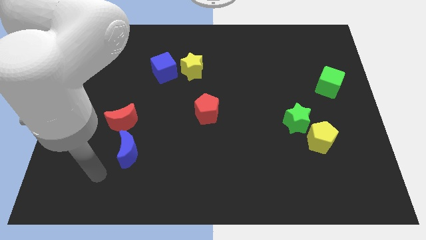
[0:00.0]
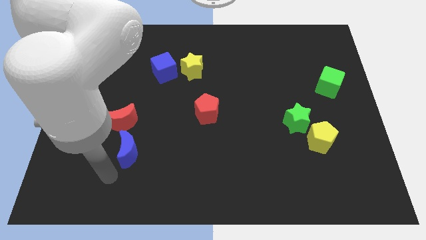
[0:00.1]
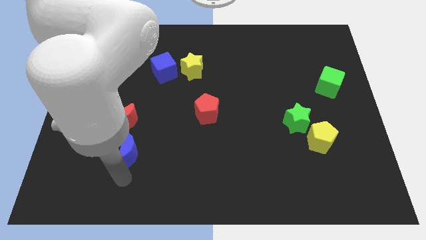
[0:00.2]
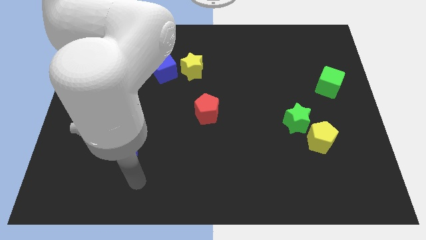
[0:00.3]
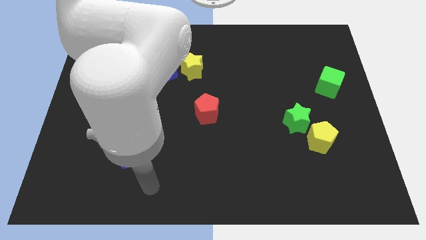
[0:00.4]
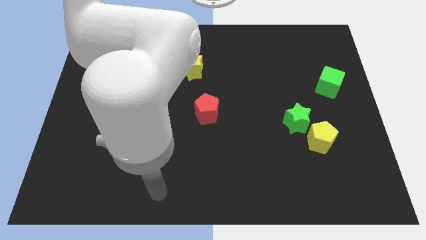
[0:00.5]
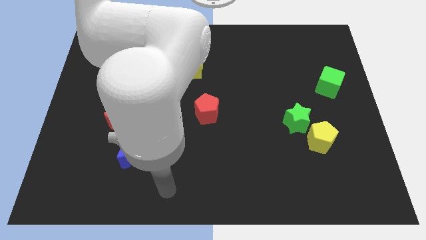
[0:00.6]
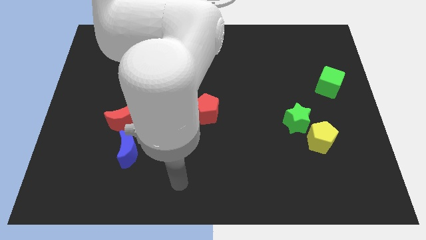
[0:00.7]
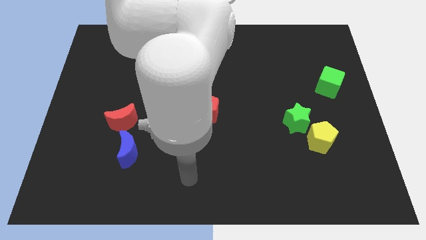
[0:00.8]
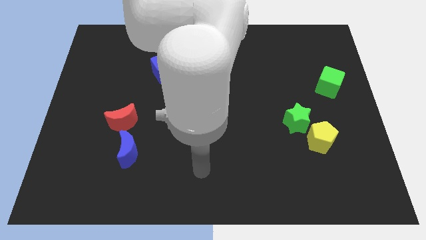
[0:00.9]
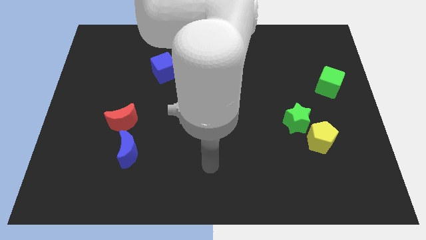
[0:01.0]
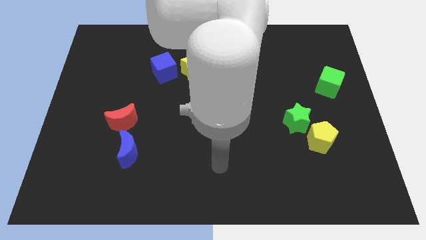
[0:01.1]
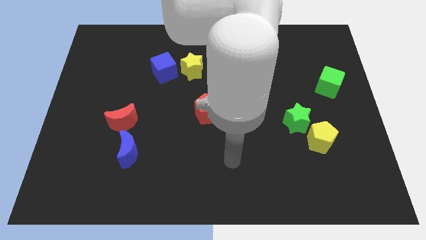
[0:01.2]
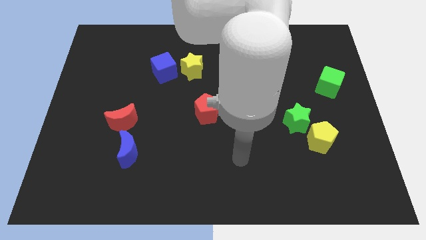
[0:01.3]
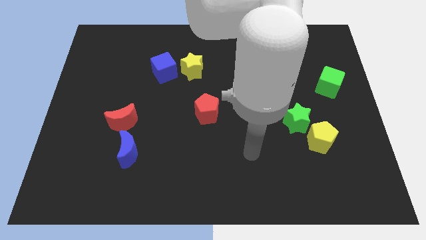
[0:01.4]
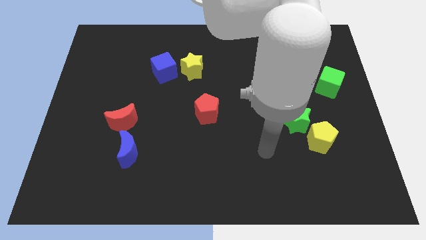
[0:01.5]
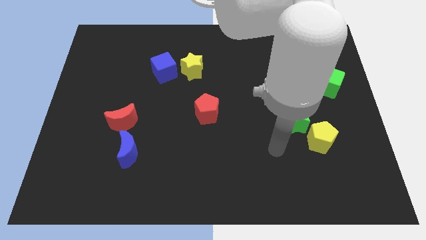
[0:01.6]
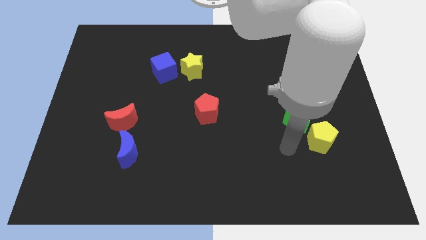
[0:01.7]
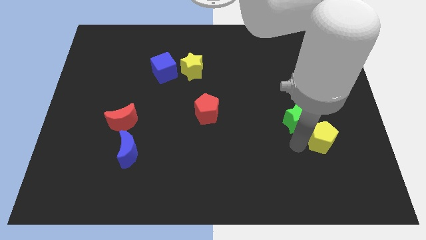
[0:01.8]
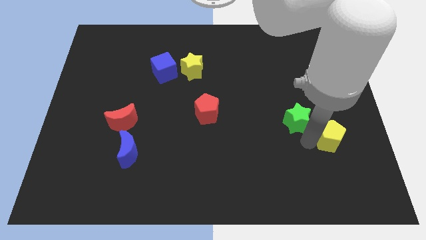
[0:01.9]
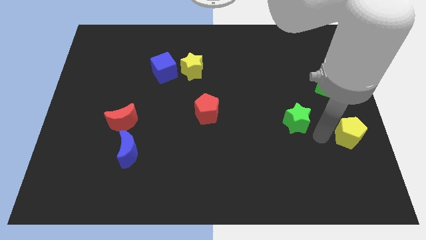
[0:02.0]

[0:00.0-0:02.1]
separate the green star from the yellow pentagon

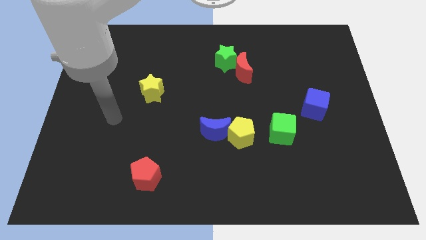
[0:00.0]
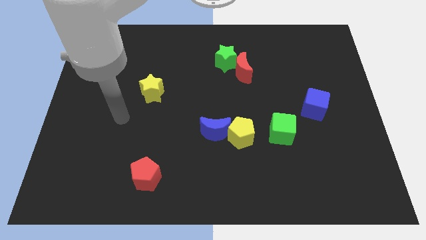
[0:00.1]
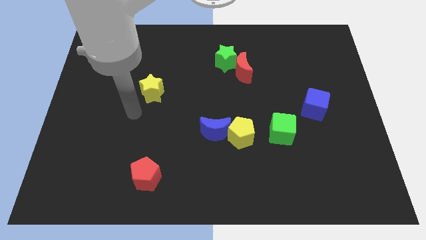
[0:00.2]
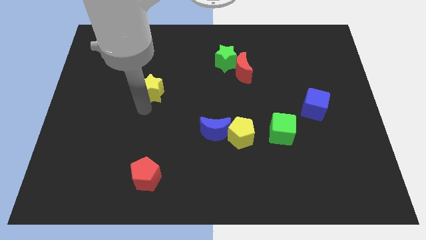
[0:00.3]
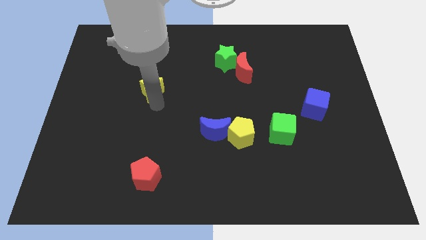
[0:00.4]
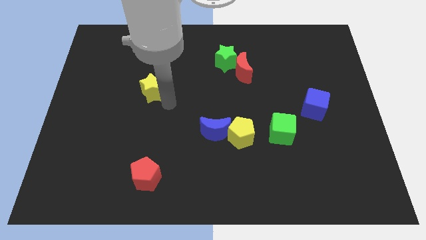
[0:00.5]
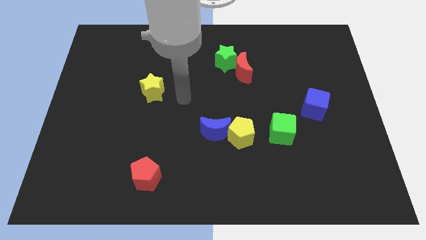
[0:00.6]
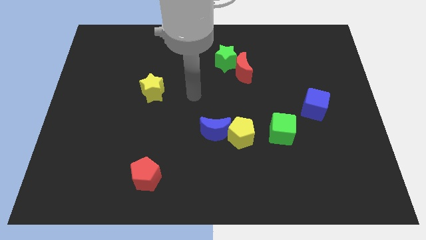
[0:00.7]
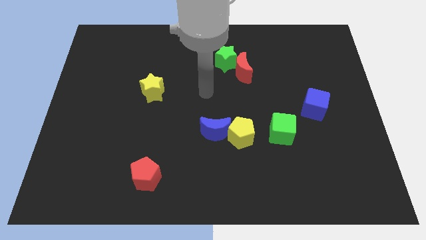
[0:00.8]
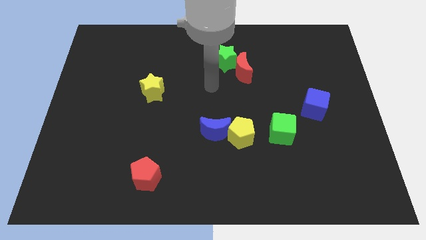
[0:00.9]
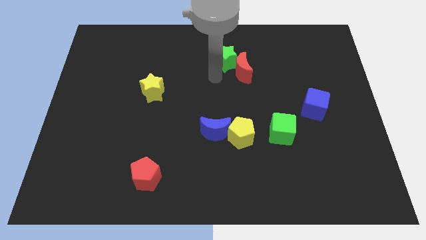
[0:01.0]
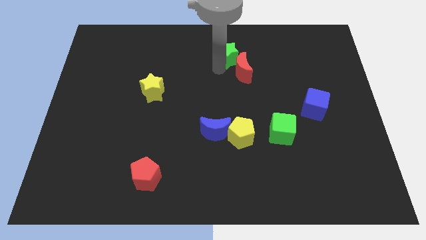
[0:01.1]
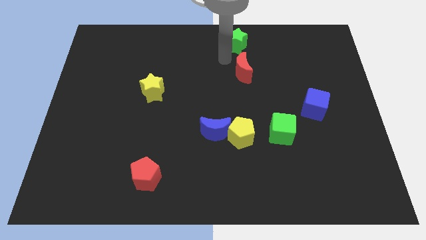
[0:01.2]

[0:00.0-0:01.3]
move the red moon away from the green star

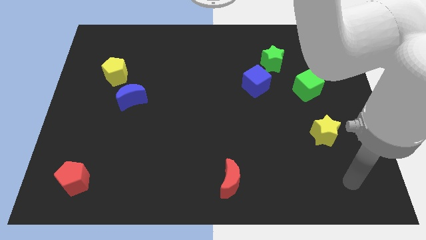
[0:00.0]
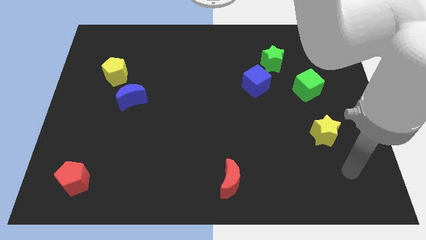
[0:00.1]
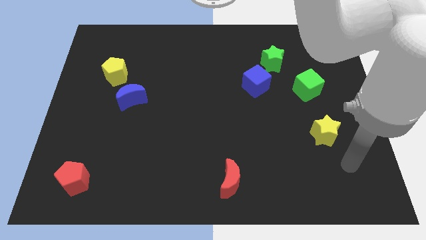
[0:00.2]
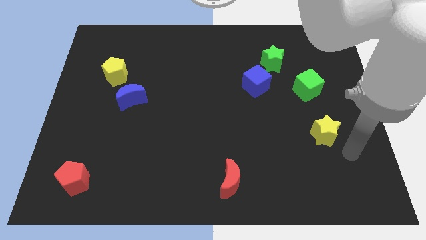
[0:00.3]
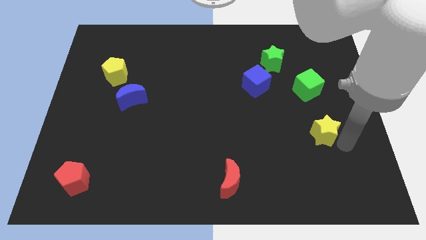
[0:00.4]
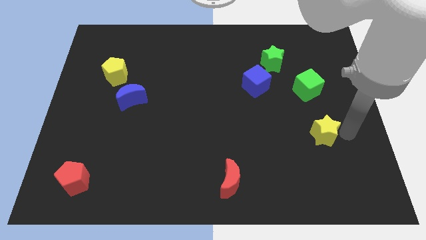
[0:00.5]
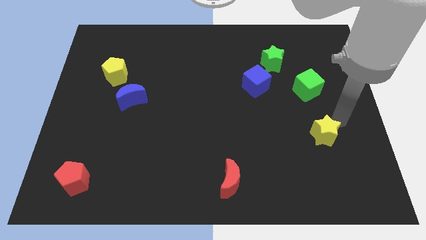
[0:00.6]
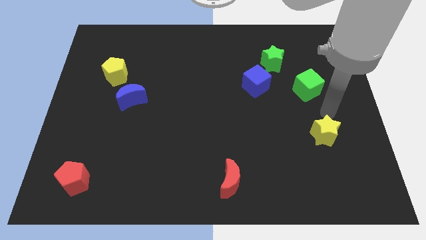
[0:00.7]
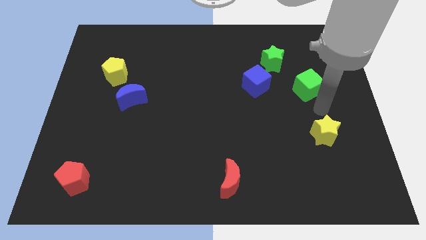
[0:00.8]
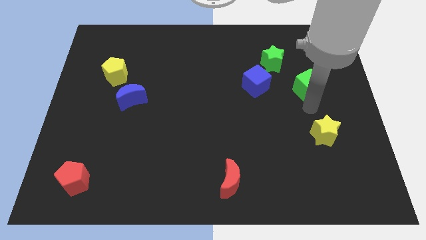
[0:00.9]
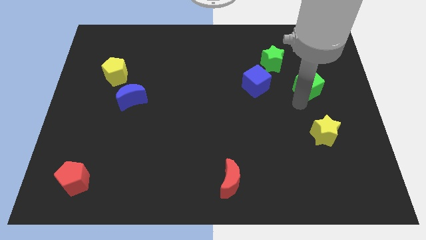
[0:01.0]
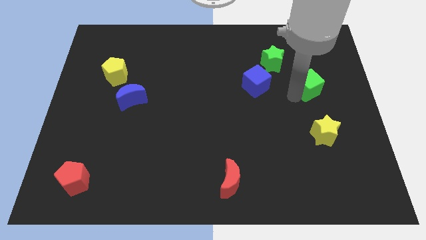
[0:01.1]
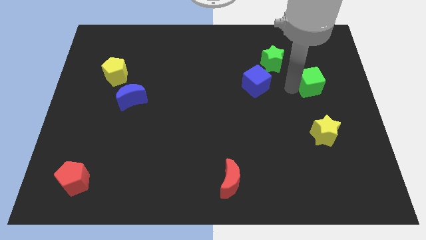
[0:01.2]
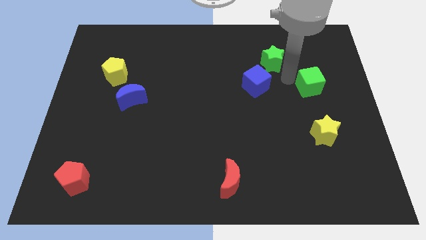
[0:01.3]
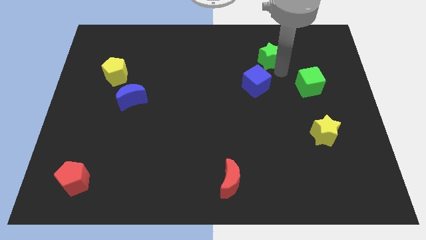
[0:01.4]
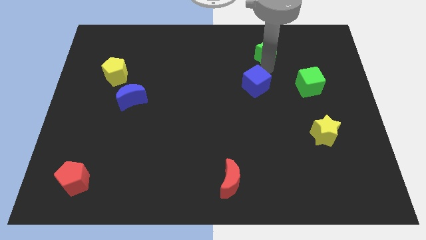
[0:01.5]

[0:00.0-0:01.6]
pull the blue cube apart from the green star

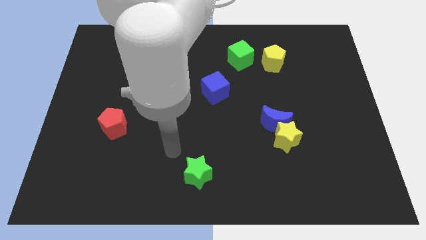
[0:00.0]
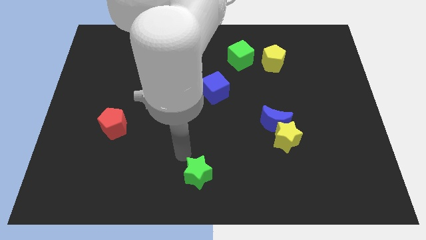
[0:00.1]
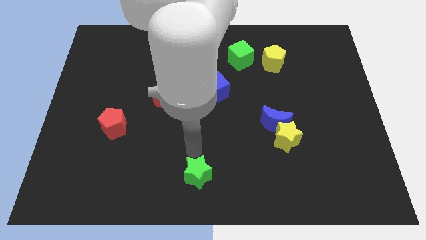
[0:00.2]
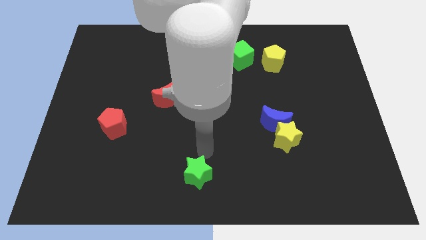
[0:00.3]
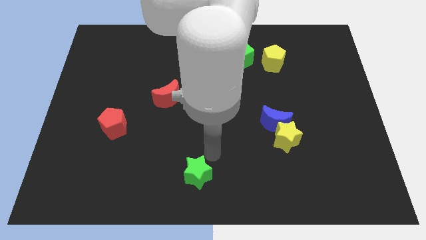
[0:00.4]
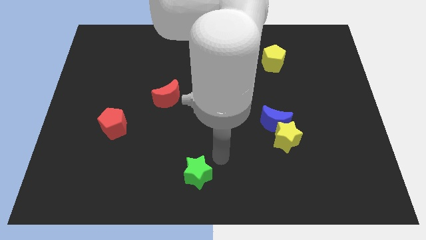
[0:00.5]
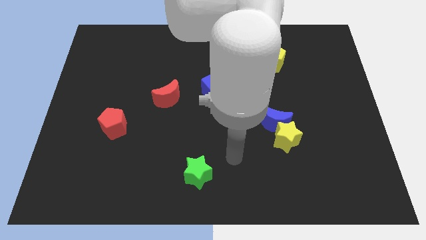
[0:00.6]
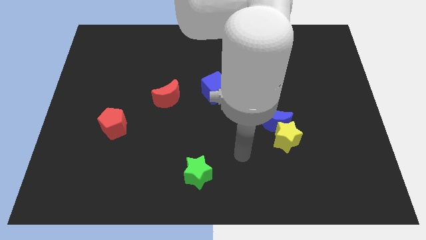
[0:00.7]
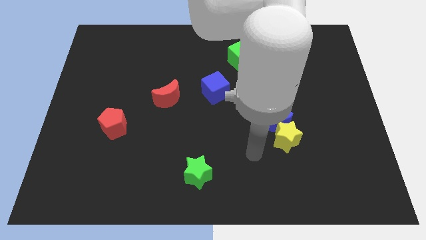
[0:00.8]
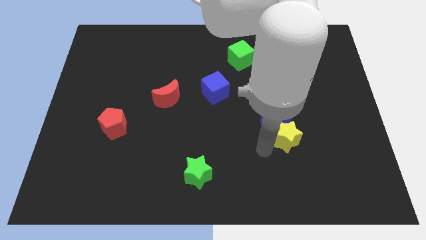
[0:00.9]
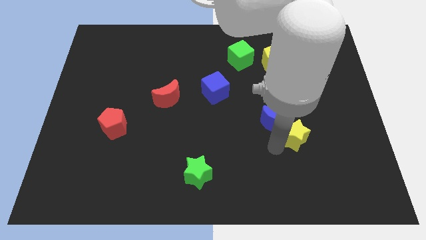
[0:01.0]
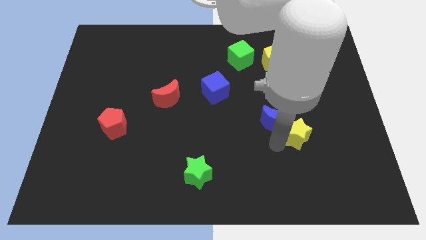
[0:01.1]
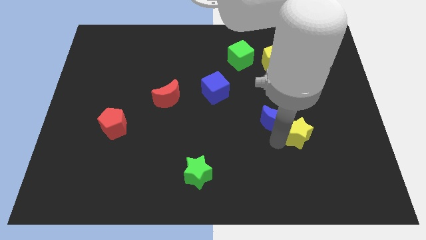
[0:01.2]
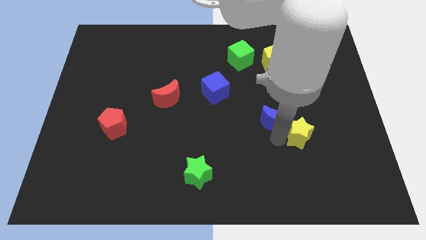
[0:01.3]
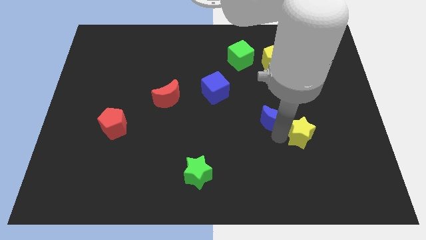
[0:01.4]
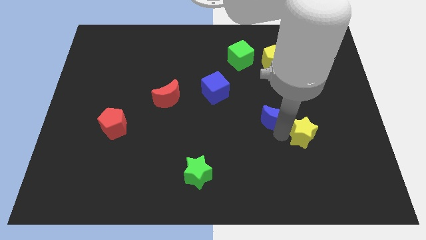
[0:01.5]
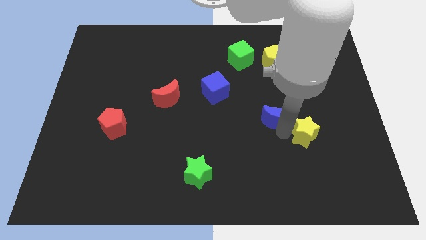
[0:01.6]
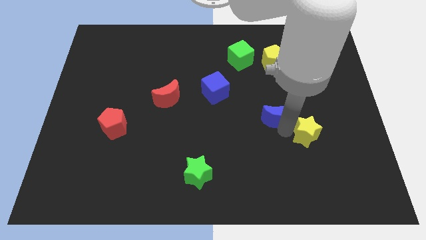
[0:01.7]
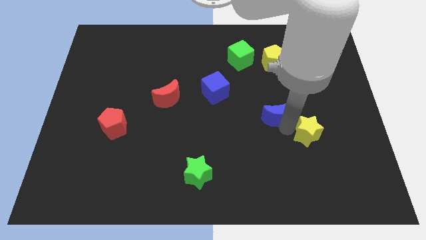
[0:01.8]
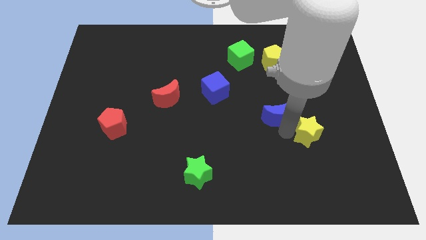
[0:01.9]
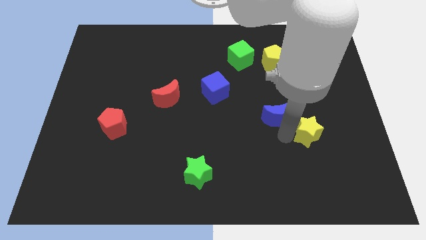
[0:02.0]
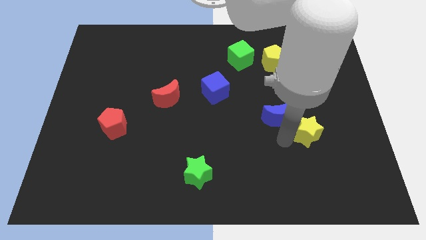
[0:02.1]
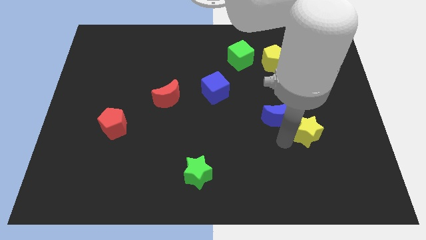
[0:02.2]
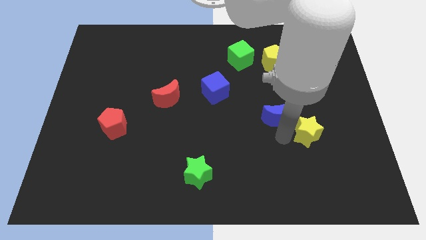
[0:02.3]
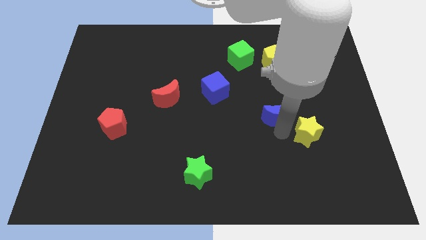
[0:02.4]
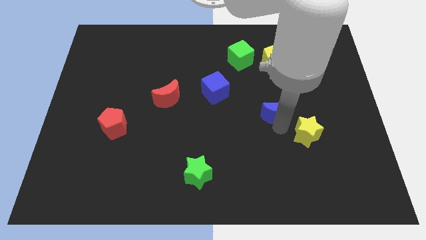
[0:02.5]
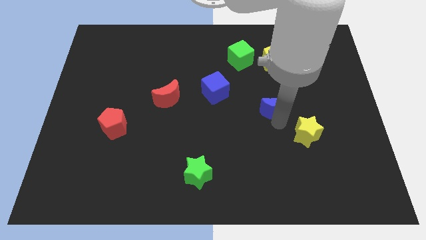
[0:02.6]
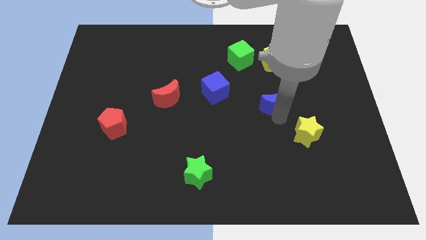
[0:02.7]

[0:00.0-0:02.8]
move the blue moon away from the yellow star

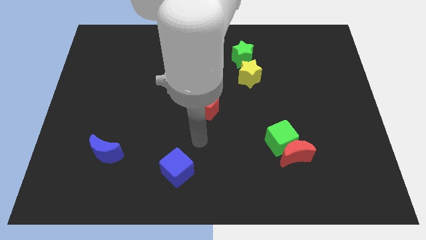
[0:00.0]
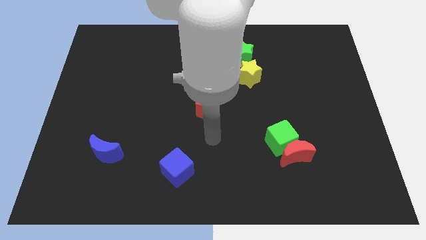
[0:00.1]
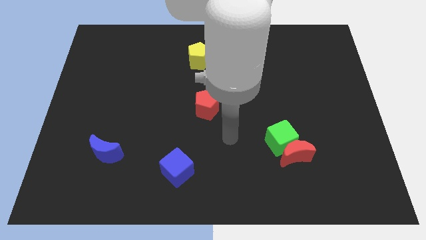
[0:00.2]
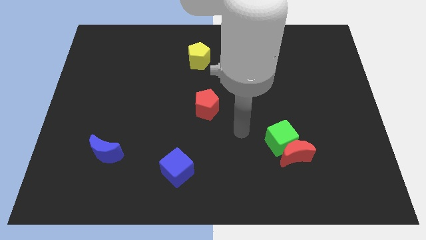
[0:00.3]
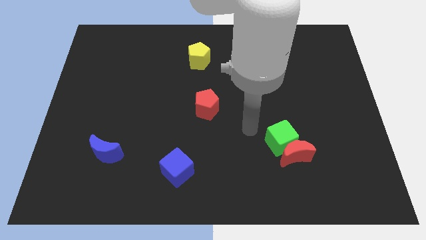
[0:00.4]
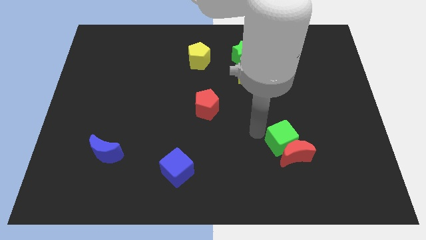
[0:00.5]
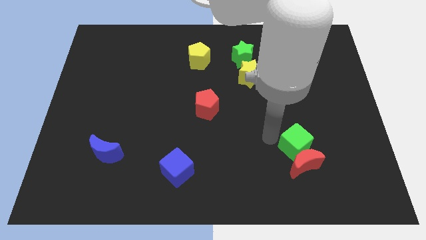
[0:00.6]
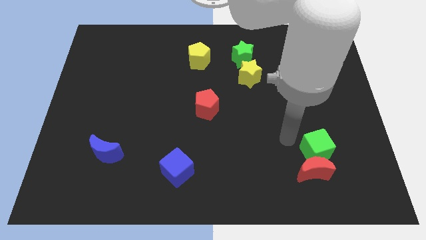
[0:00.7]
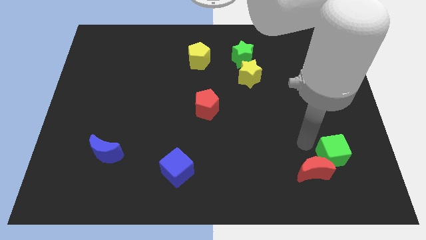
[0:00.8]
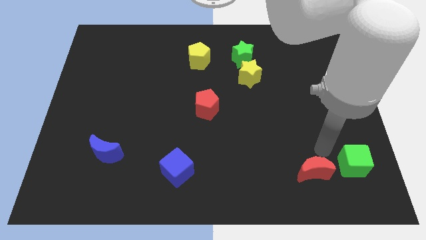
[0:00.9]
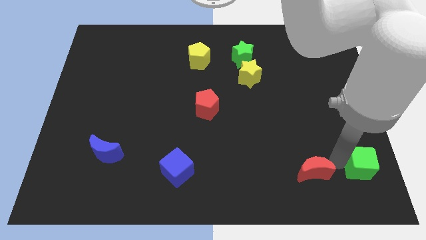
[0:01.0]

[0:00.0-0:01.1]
pull the red moon apart from the green cube

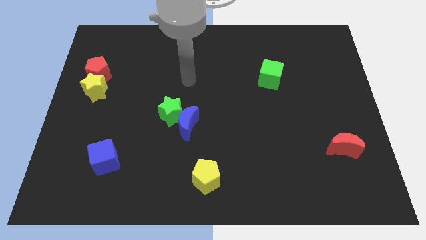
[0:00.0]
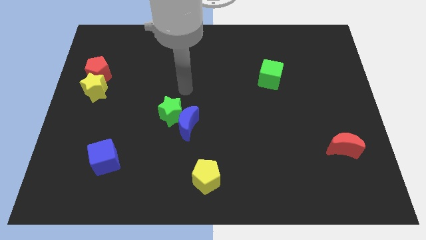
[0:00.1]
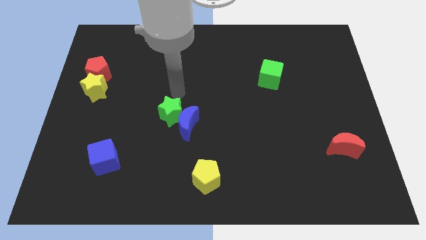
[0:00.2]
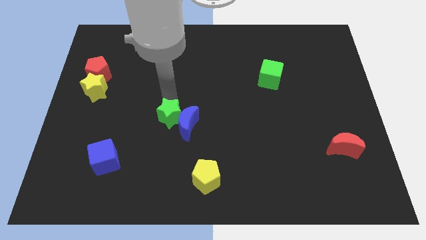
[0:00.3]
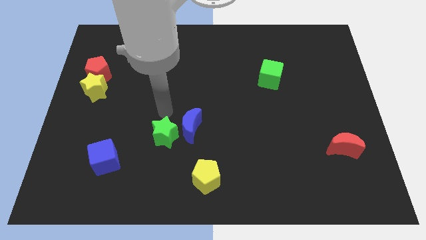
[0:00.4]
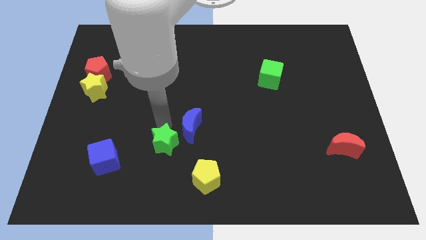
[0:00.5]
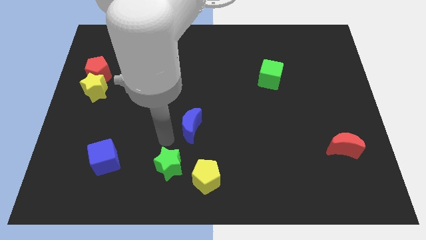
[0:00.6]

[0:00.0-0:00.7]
move the blue moon away from the green star
